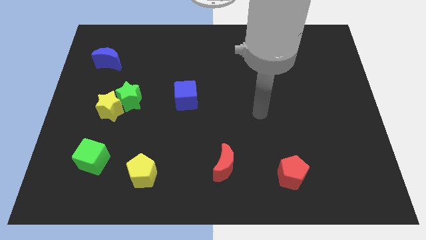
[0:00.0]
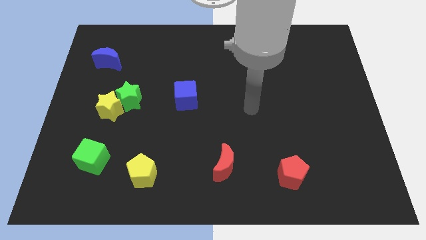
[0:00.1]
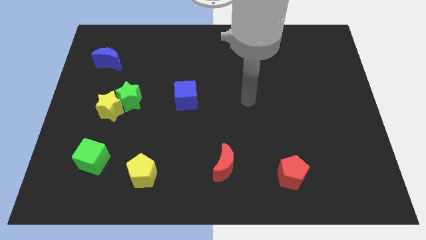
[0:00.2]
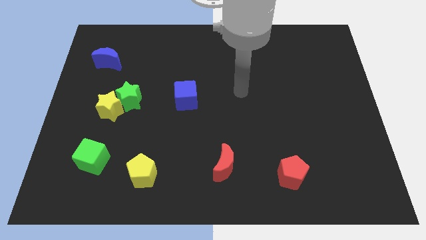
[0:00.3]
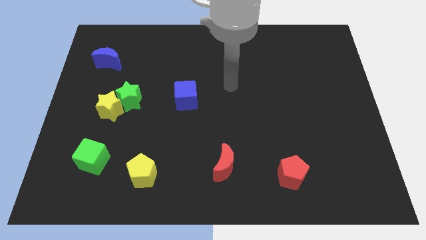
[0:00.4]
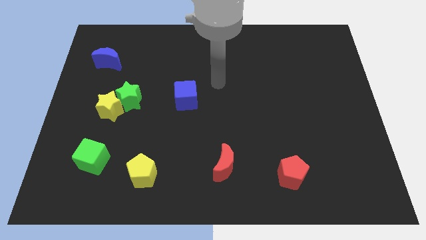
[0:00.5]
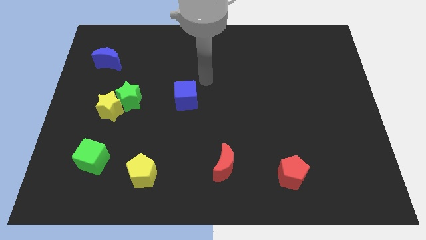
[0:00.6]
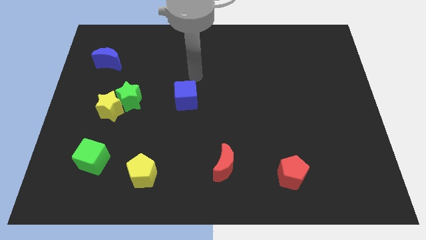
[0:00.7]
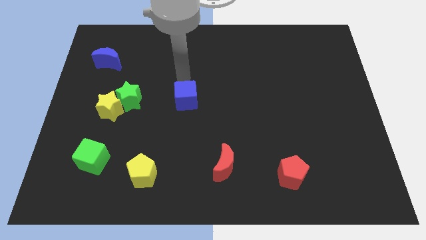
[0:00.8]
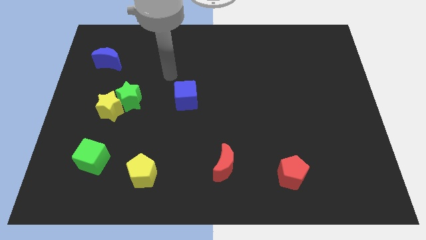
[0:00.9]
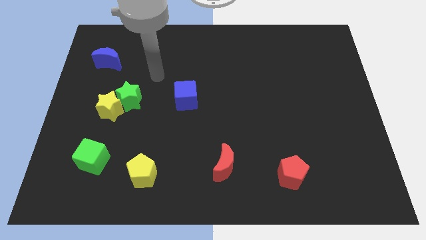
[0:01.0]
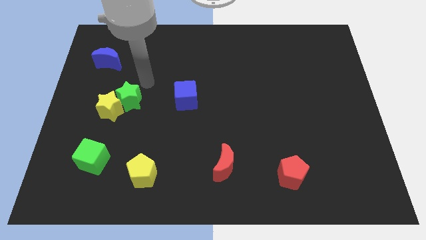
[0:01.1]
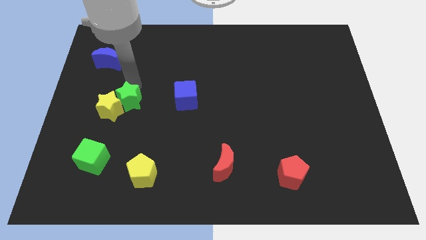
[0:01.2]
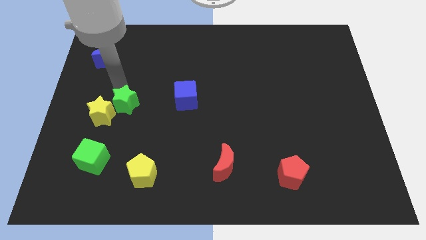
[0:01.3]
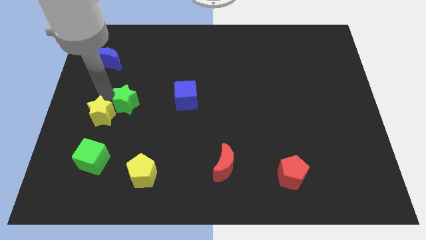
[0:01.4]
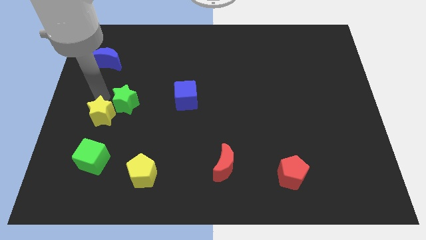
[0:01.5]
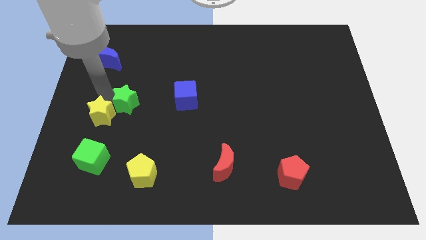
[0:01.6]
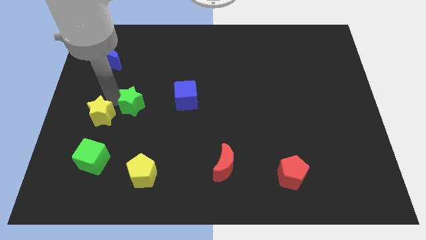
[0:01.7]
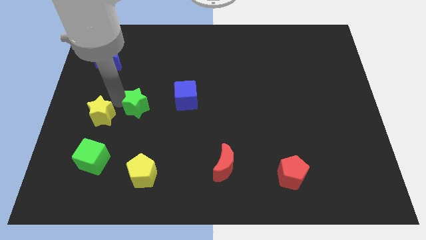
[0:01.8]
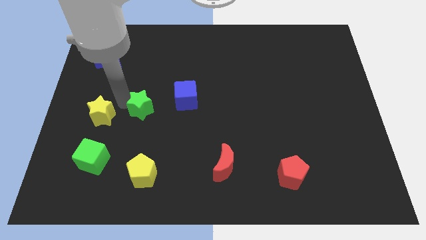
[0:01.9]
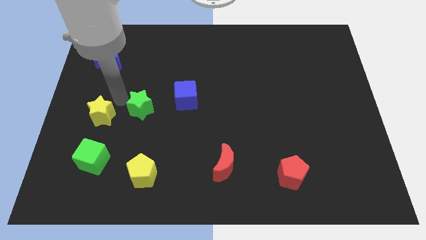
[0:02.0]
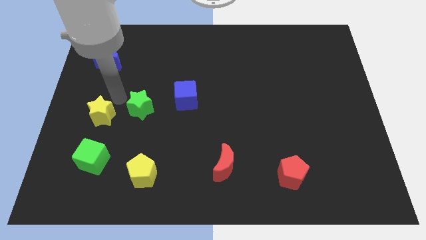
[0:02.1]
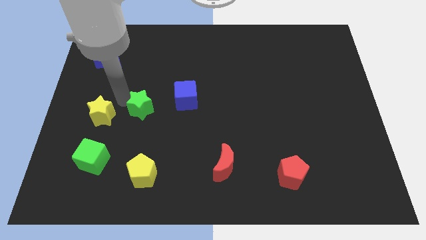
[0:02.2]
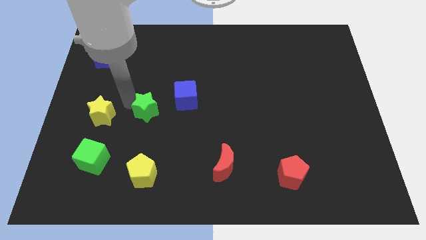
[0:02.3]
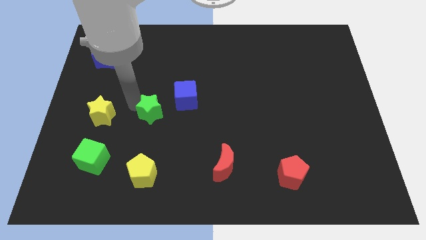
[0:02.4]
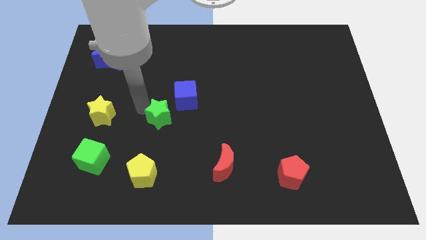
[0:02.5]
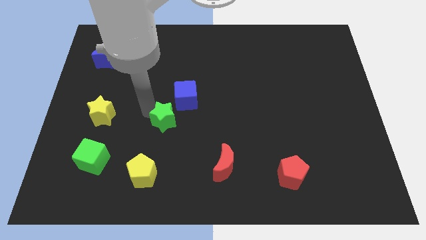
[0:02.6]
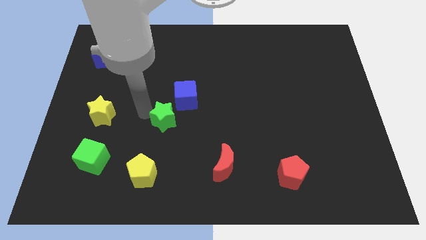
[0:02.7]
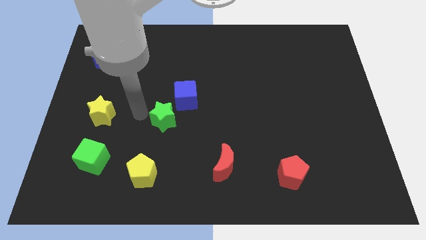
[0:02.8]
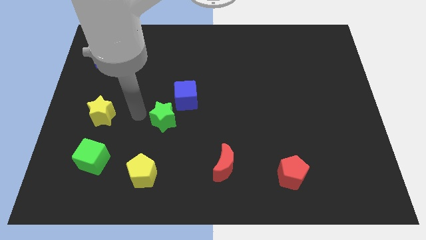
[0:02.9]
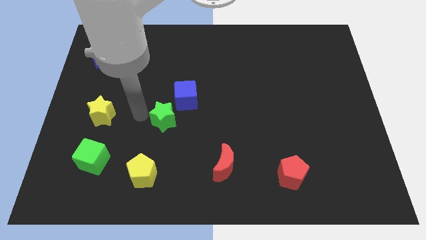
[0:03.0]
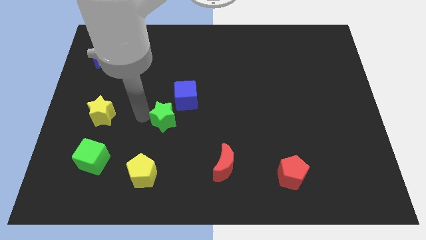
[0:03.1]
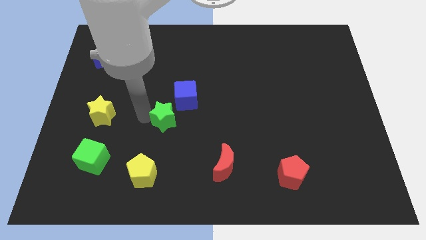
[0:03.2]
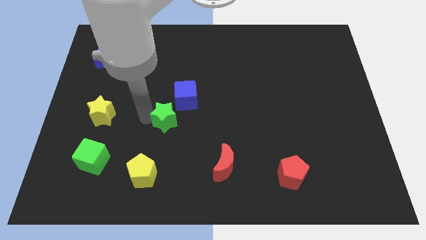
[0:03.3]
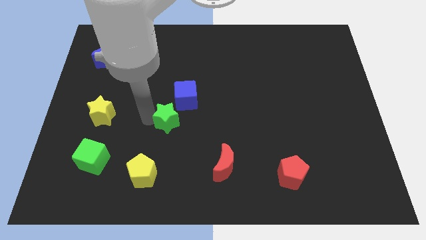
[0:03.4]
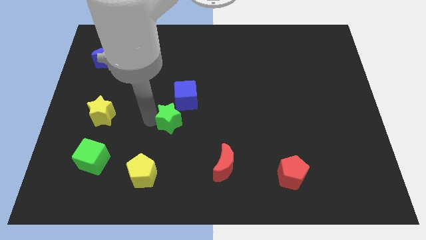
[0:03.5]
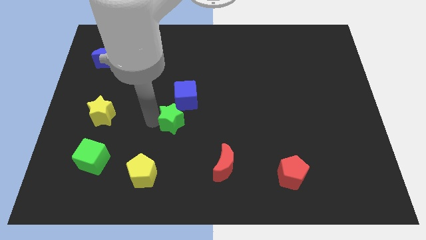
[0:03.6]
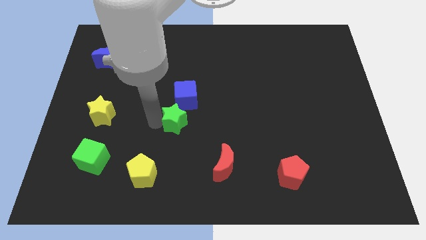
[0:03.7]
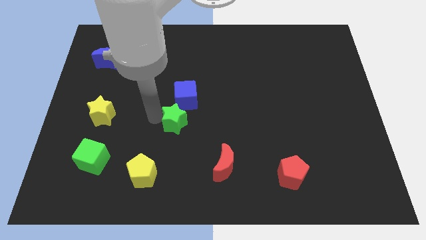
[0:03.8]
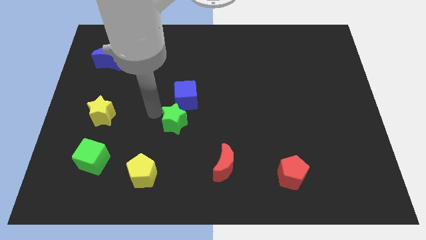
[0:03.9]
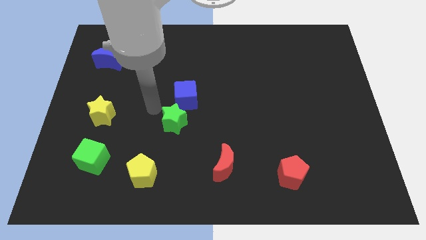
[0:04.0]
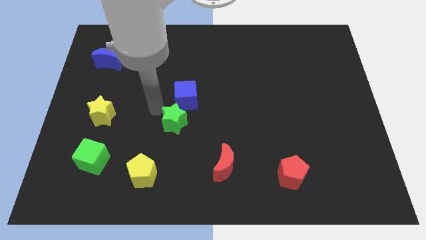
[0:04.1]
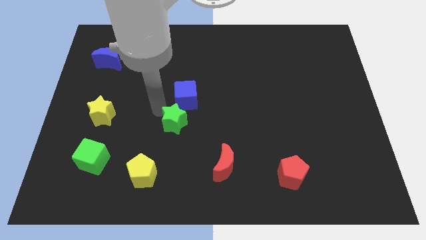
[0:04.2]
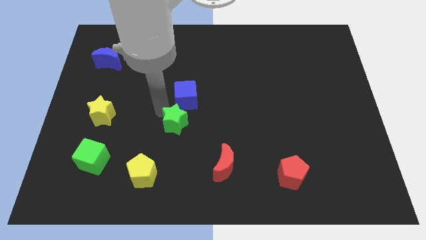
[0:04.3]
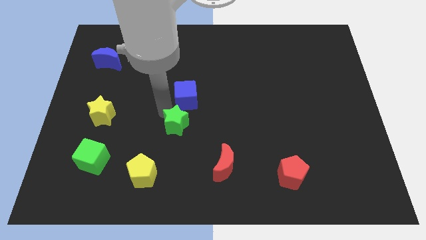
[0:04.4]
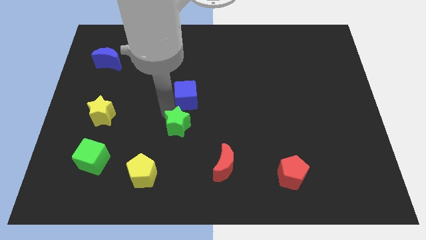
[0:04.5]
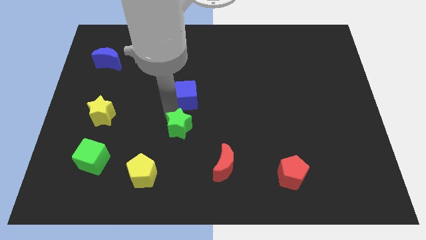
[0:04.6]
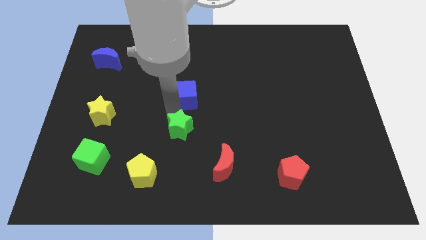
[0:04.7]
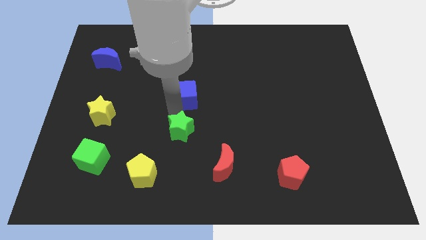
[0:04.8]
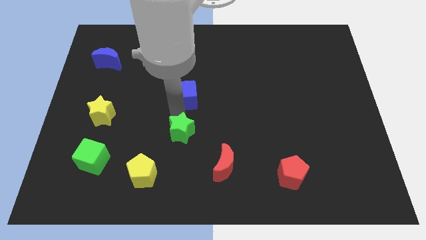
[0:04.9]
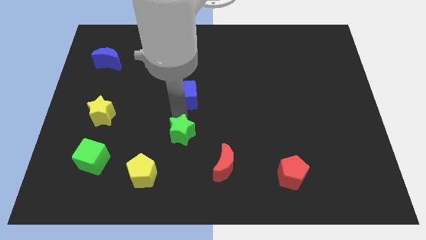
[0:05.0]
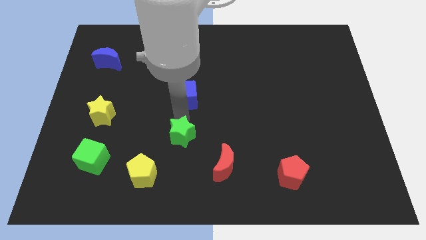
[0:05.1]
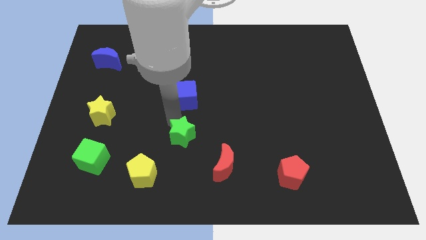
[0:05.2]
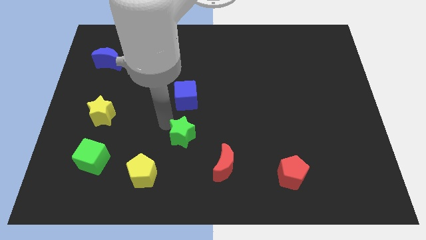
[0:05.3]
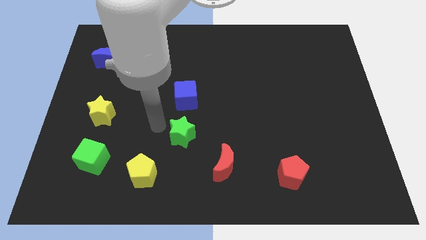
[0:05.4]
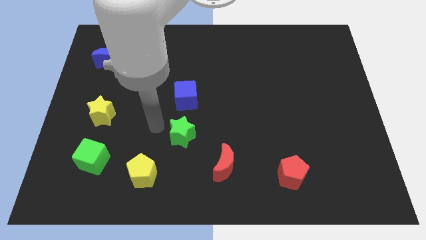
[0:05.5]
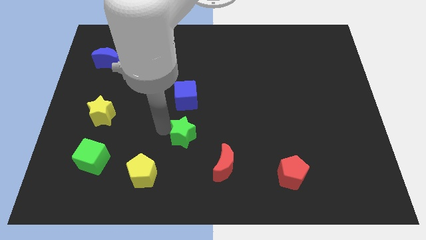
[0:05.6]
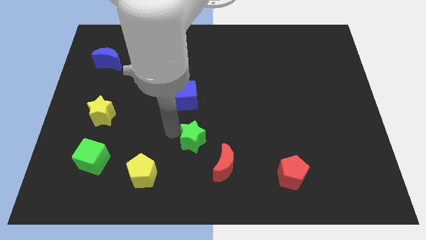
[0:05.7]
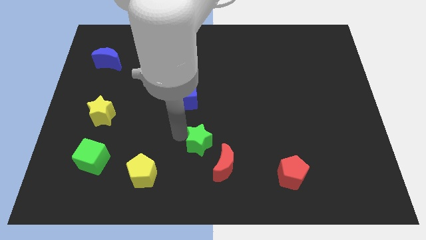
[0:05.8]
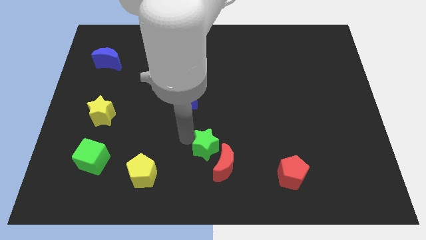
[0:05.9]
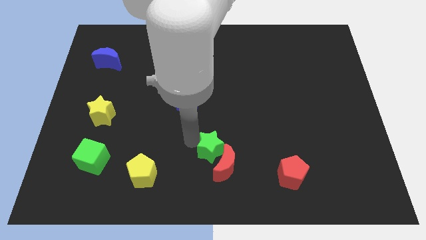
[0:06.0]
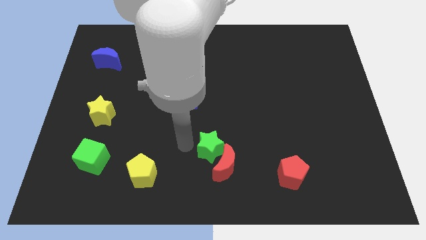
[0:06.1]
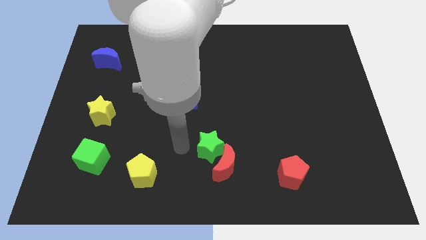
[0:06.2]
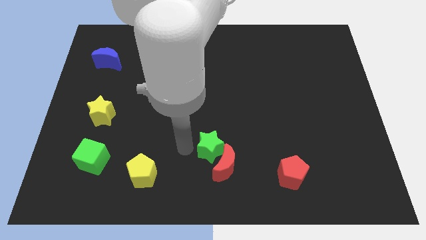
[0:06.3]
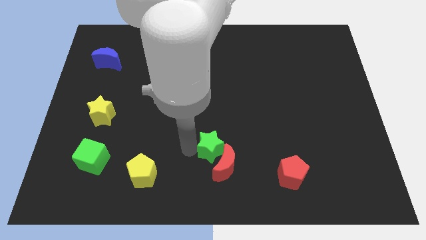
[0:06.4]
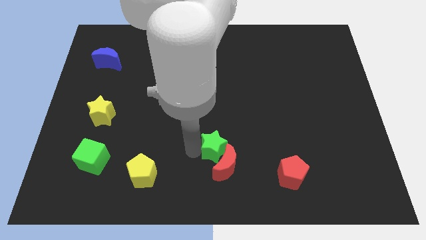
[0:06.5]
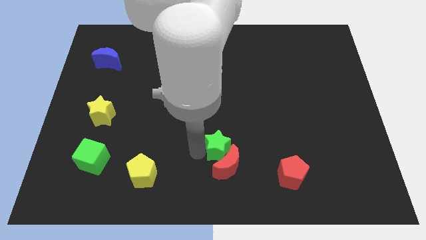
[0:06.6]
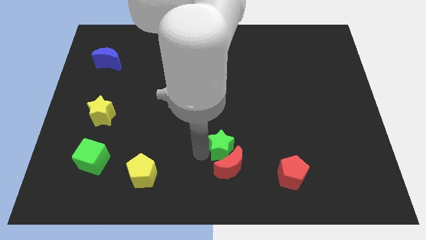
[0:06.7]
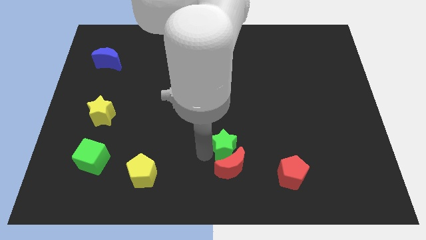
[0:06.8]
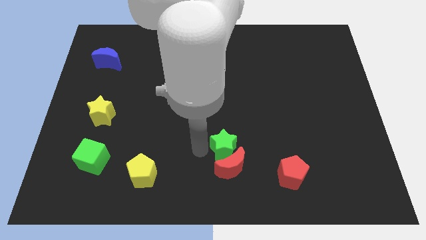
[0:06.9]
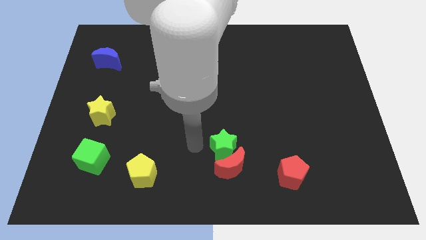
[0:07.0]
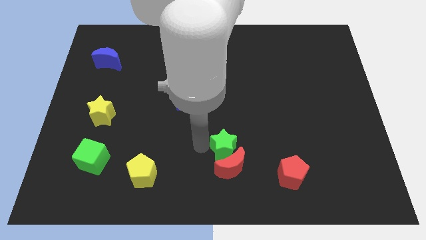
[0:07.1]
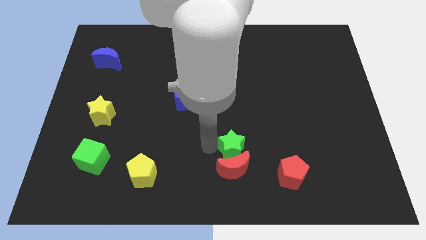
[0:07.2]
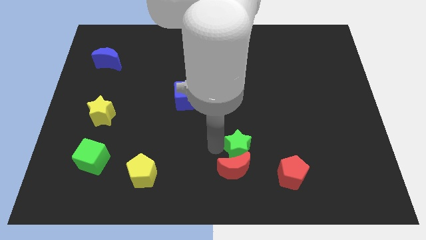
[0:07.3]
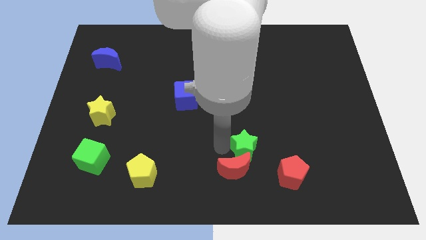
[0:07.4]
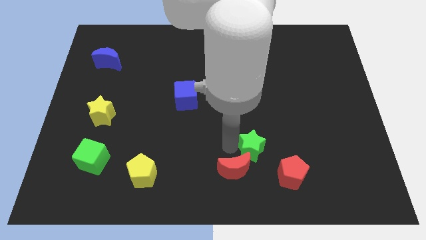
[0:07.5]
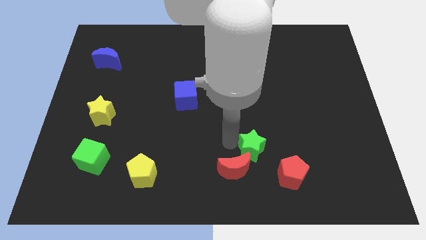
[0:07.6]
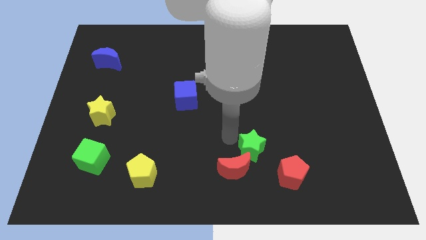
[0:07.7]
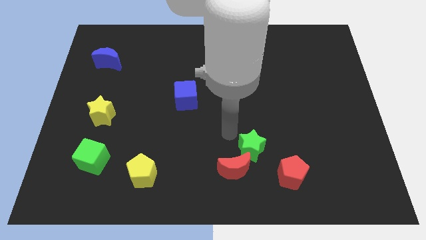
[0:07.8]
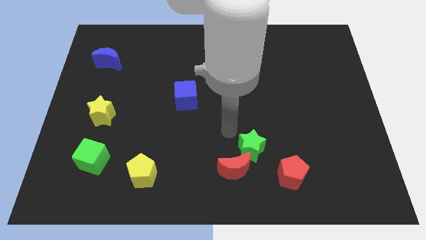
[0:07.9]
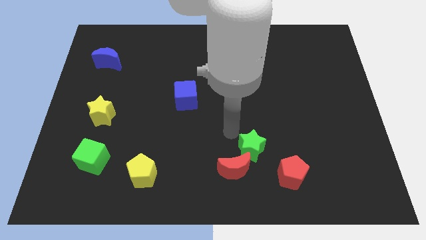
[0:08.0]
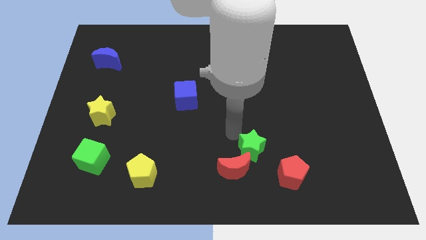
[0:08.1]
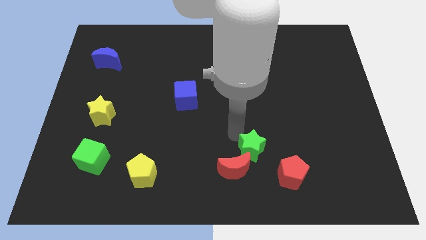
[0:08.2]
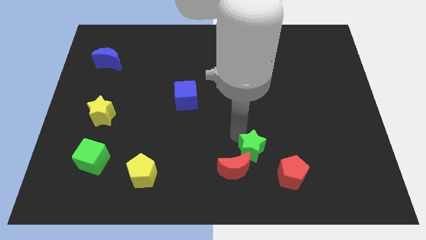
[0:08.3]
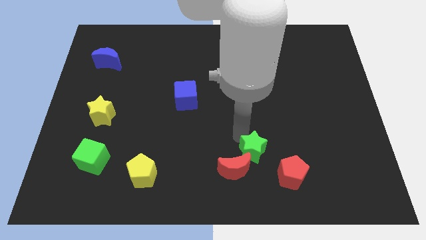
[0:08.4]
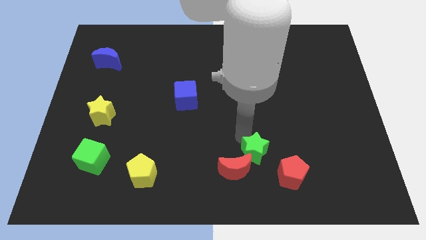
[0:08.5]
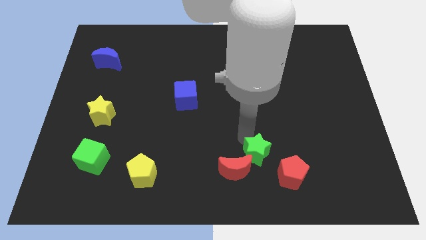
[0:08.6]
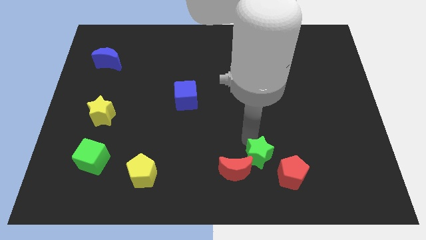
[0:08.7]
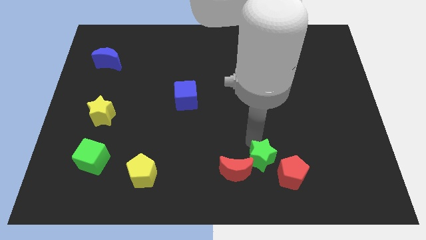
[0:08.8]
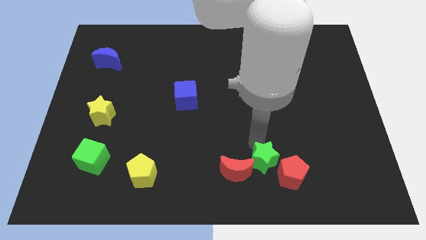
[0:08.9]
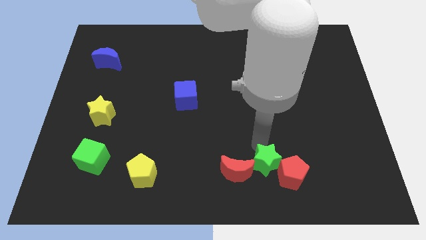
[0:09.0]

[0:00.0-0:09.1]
slide the green star close to the red pentagon
